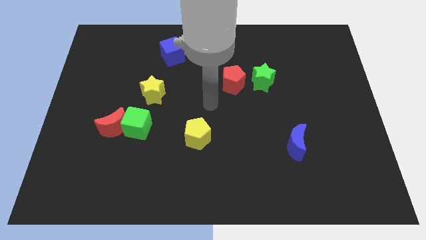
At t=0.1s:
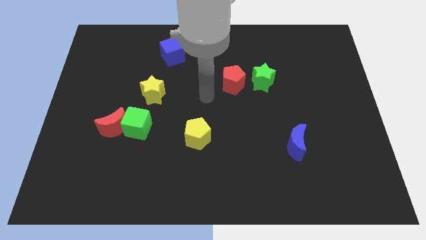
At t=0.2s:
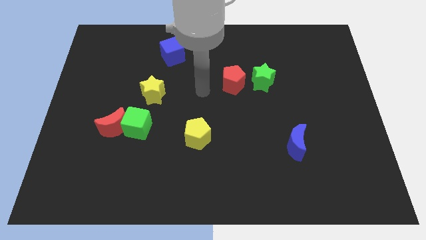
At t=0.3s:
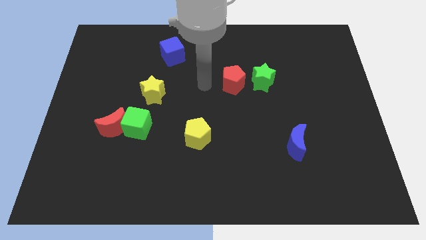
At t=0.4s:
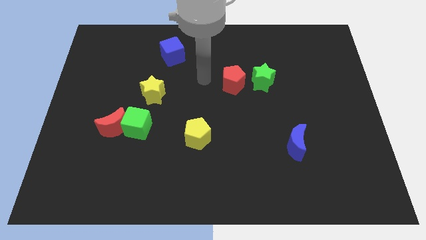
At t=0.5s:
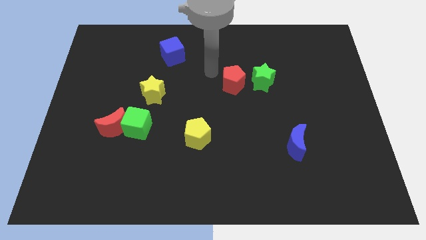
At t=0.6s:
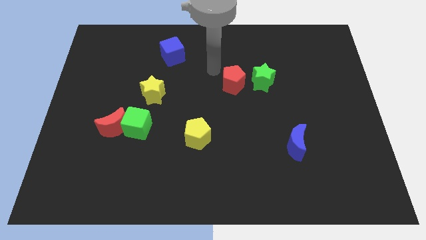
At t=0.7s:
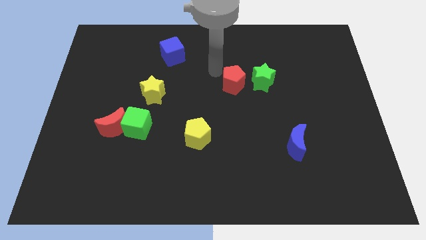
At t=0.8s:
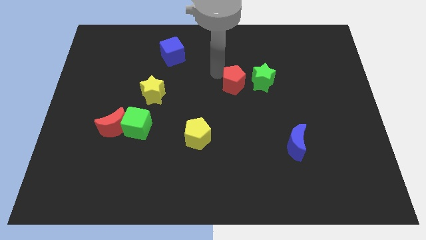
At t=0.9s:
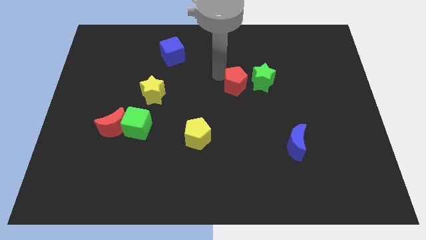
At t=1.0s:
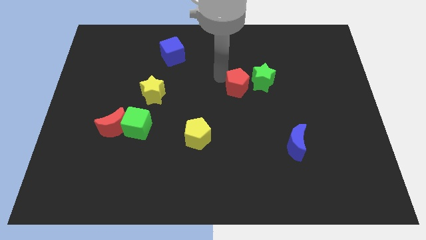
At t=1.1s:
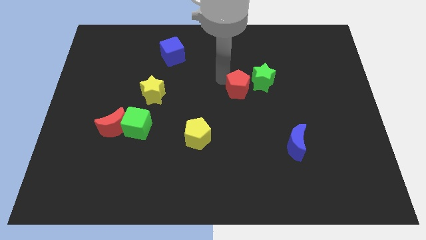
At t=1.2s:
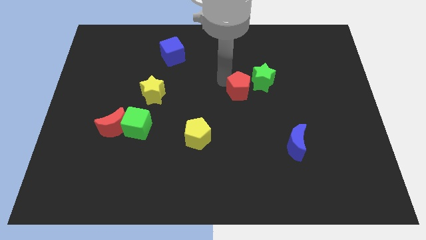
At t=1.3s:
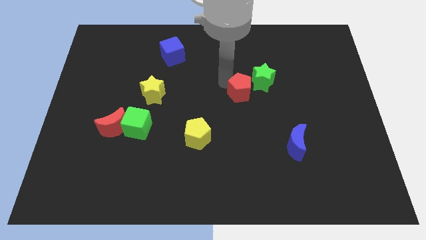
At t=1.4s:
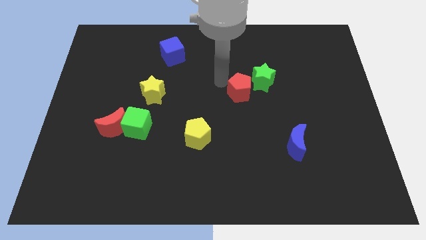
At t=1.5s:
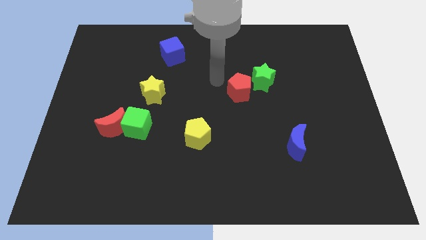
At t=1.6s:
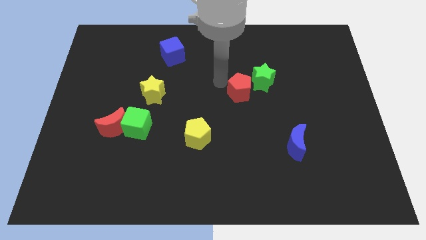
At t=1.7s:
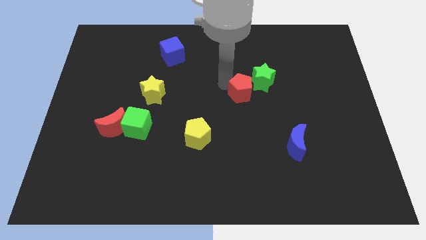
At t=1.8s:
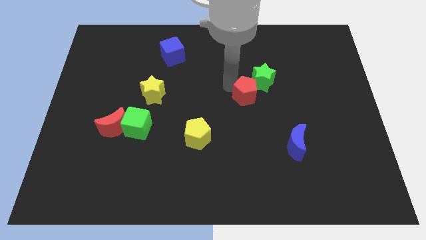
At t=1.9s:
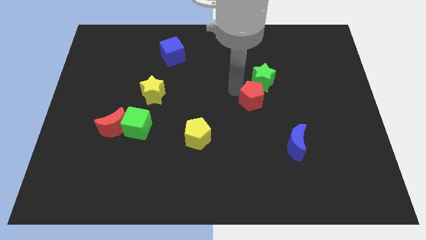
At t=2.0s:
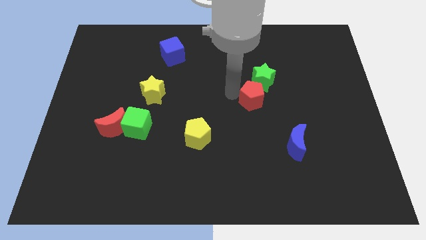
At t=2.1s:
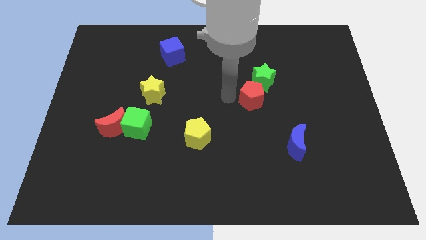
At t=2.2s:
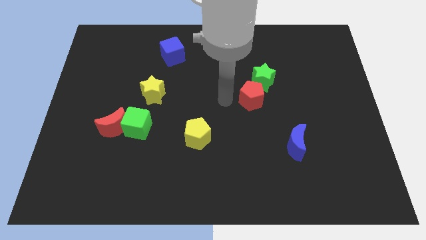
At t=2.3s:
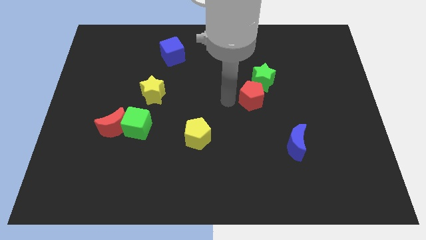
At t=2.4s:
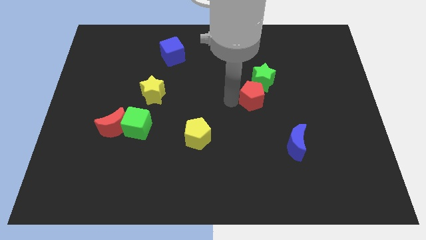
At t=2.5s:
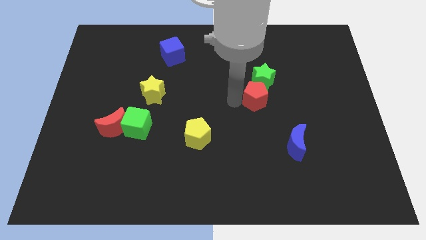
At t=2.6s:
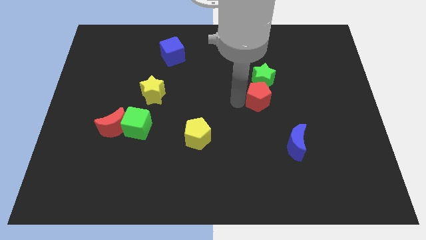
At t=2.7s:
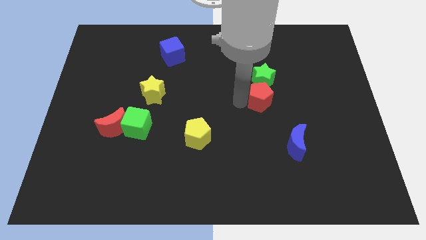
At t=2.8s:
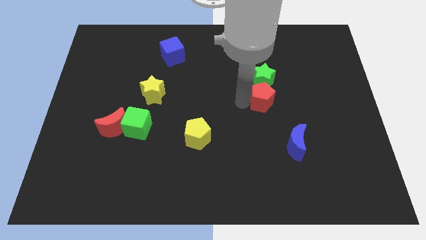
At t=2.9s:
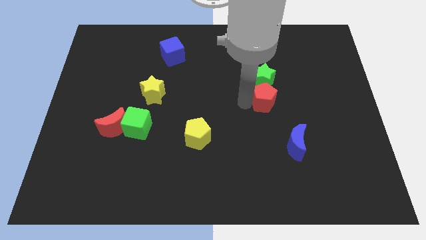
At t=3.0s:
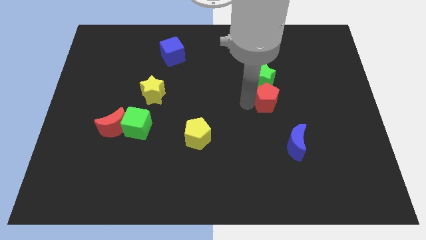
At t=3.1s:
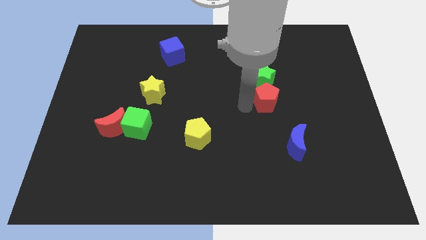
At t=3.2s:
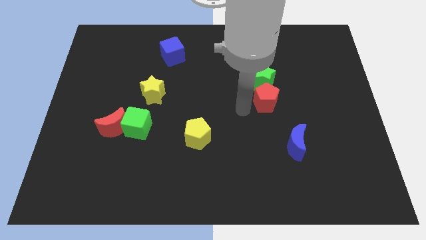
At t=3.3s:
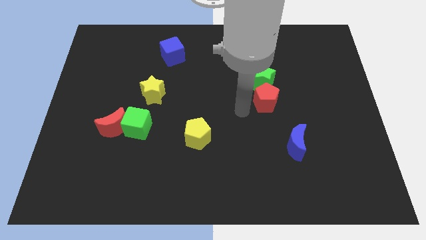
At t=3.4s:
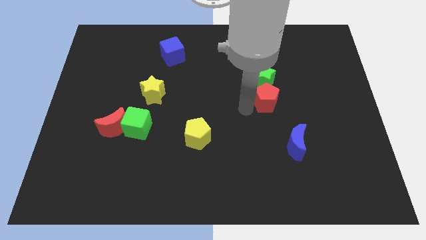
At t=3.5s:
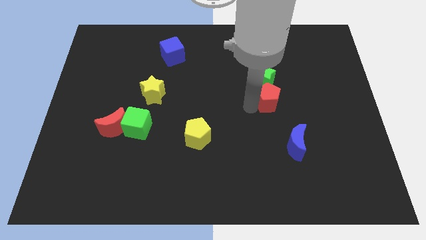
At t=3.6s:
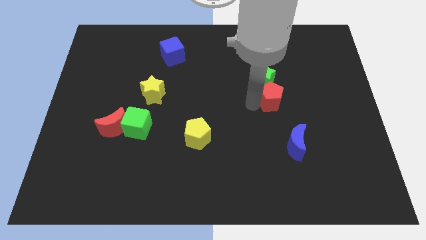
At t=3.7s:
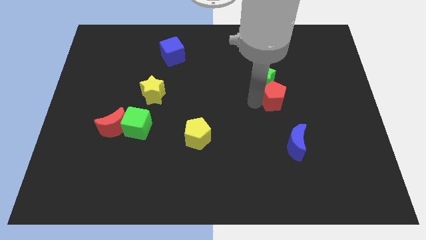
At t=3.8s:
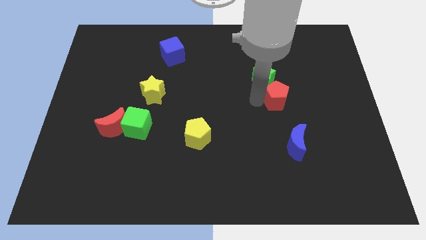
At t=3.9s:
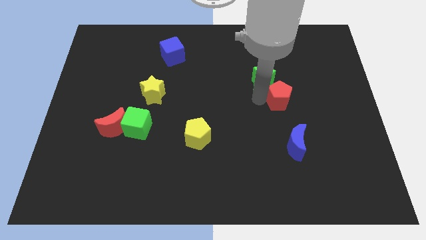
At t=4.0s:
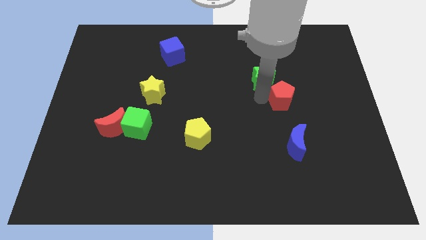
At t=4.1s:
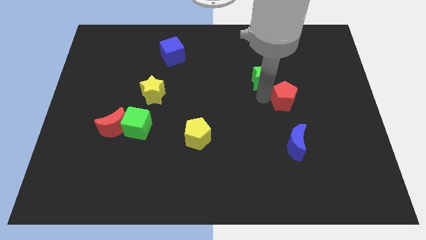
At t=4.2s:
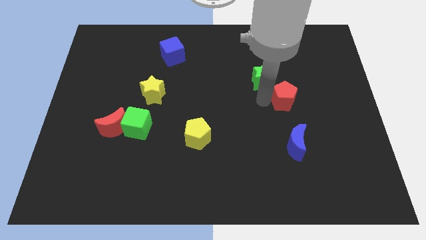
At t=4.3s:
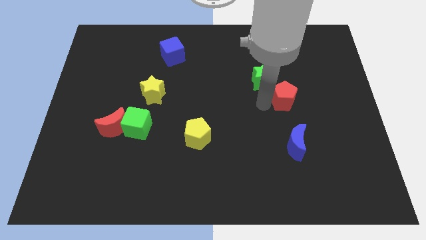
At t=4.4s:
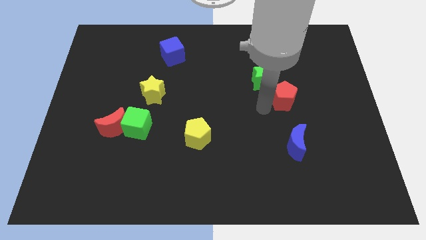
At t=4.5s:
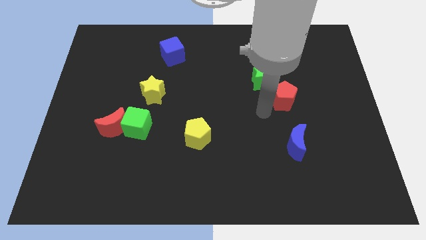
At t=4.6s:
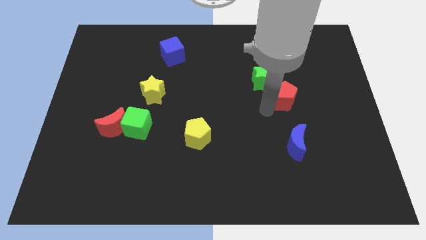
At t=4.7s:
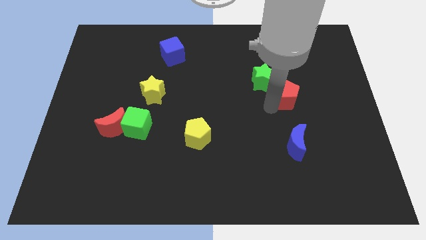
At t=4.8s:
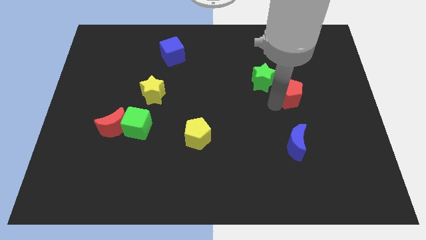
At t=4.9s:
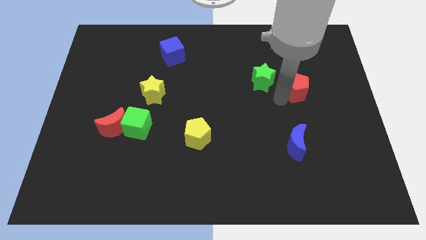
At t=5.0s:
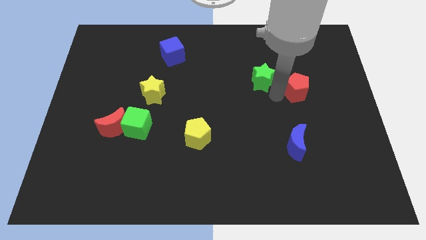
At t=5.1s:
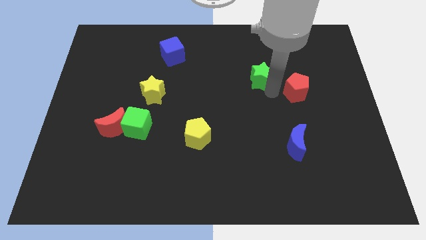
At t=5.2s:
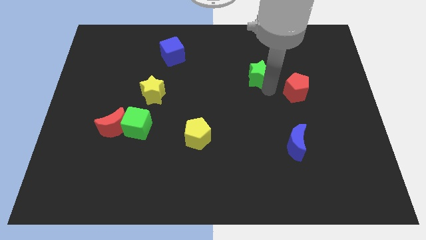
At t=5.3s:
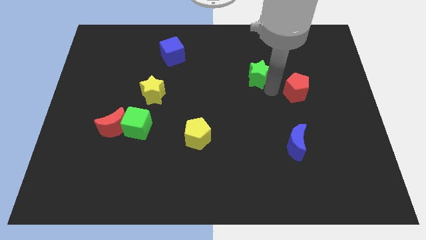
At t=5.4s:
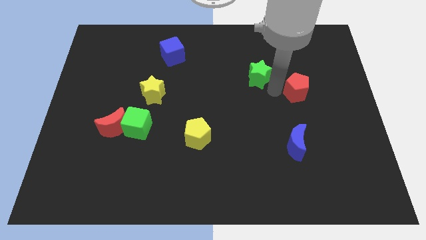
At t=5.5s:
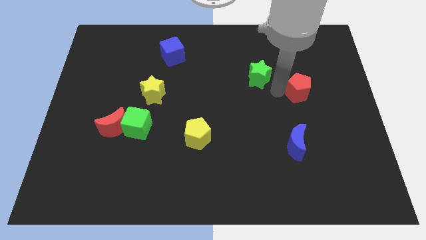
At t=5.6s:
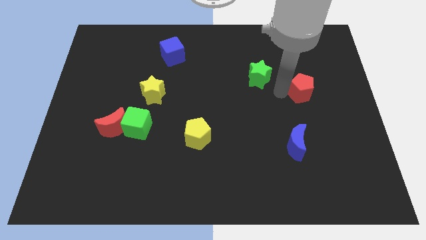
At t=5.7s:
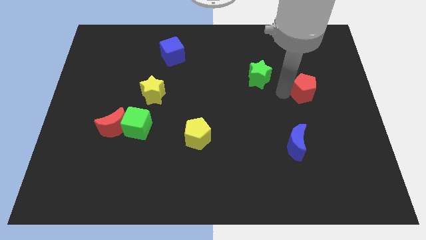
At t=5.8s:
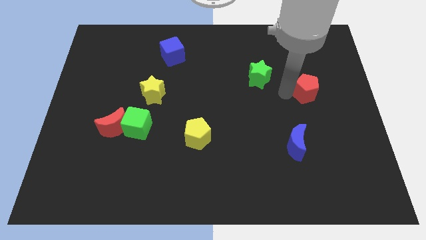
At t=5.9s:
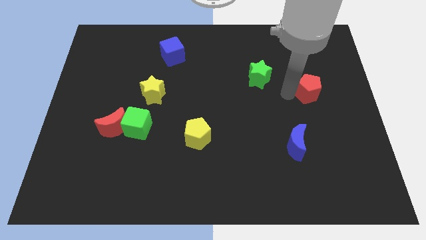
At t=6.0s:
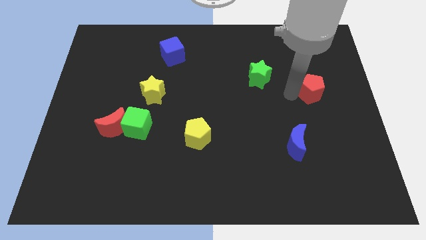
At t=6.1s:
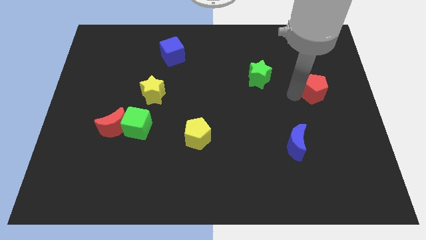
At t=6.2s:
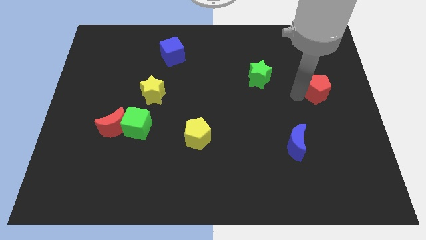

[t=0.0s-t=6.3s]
push the red pentagon to the right side of the board

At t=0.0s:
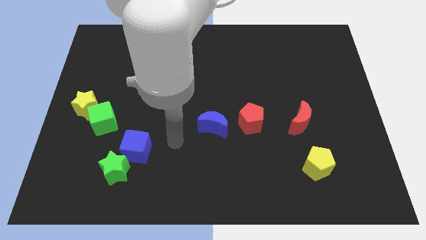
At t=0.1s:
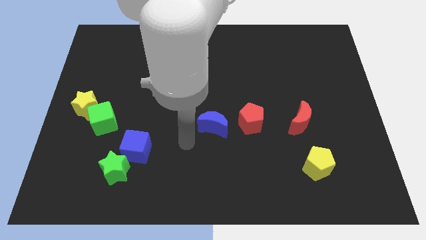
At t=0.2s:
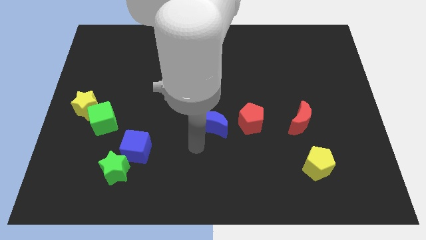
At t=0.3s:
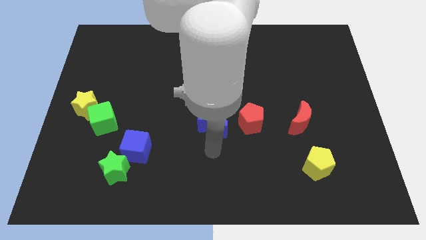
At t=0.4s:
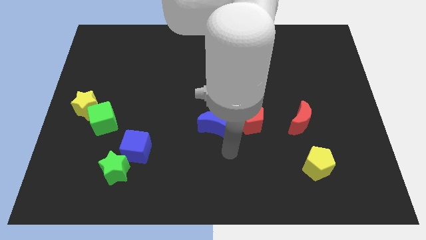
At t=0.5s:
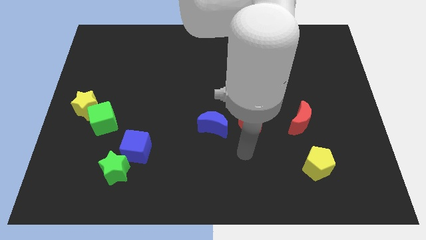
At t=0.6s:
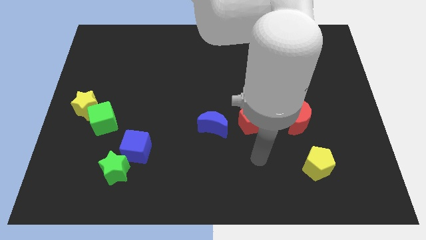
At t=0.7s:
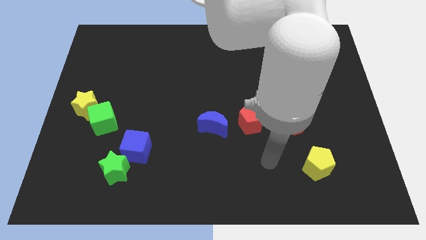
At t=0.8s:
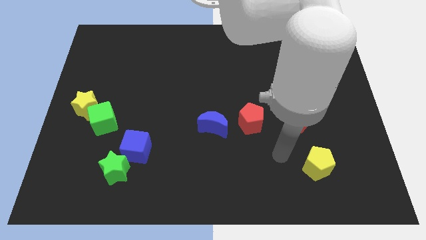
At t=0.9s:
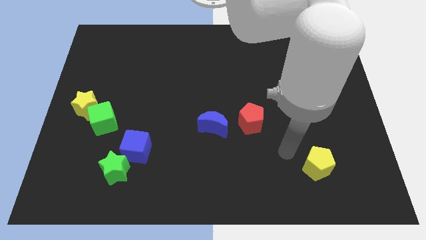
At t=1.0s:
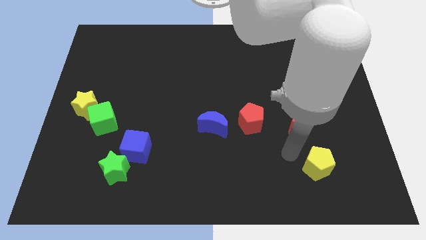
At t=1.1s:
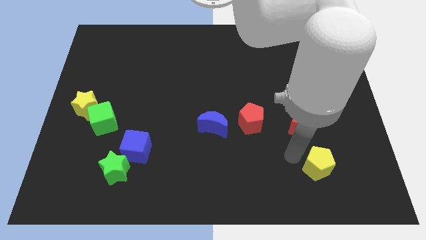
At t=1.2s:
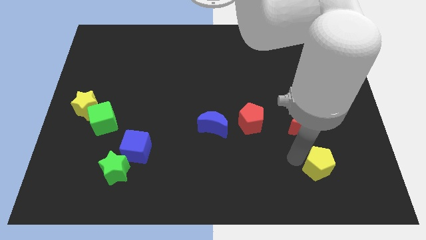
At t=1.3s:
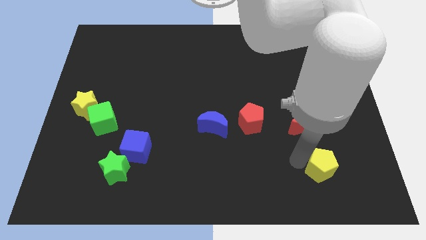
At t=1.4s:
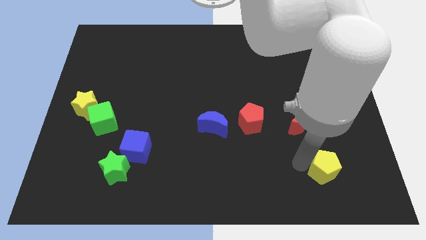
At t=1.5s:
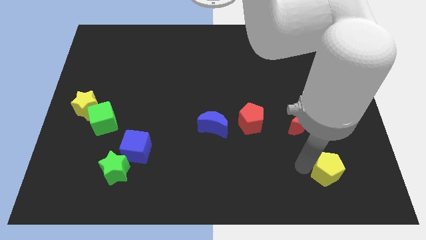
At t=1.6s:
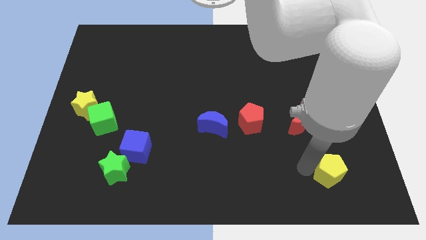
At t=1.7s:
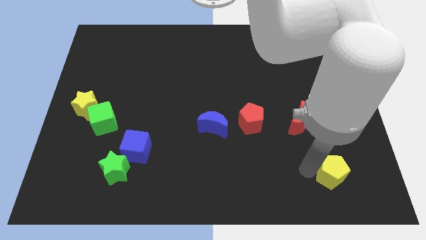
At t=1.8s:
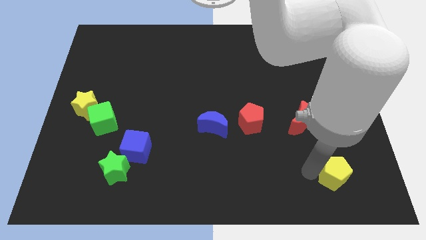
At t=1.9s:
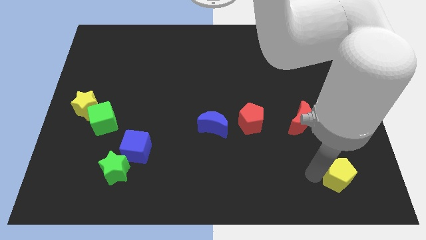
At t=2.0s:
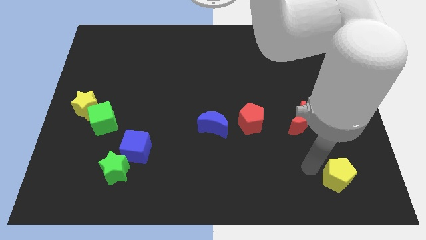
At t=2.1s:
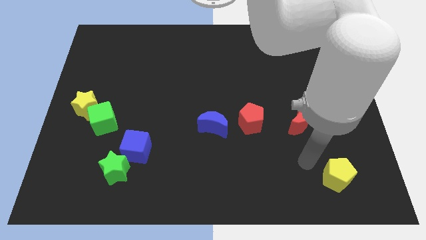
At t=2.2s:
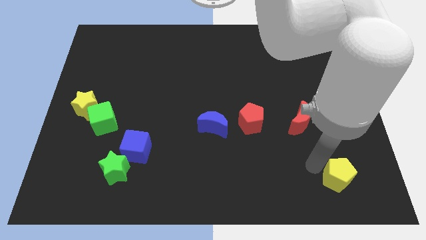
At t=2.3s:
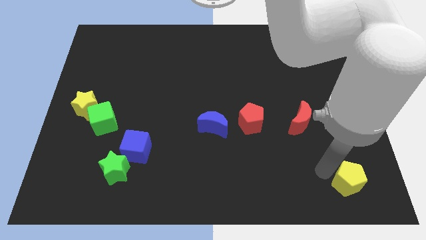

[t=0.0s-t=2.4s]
put the yellow pentagon to the bottom right
